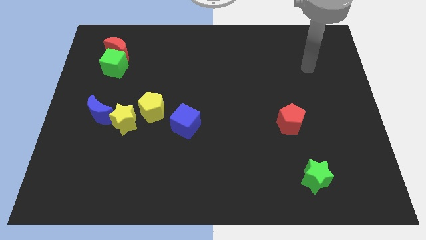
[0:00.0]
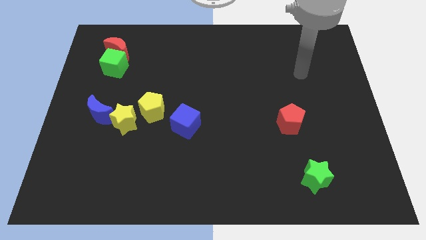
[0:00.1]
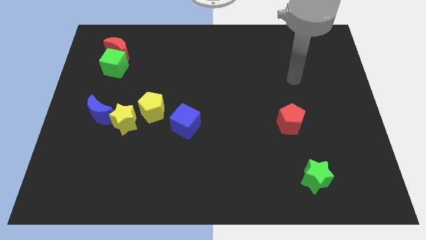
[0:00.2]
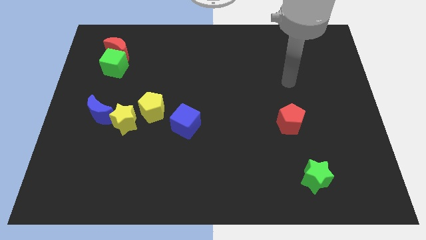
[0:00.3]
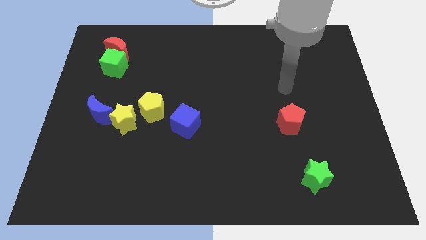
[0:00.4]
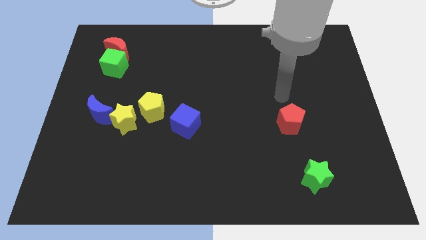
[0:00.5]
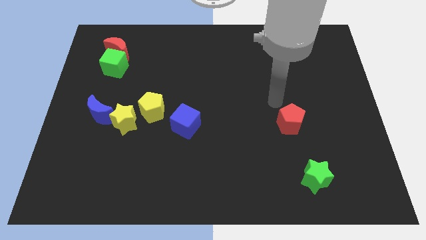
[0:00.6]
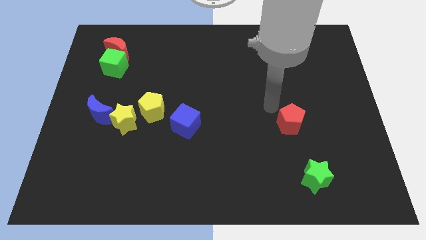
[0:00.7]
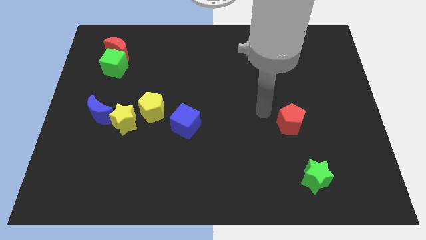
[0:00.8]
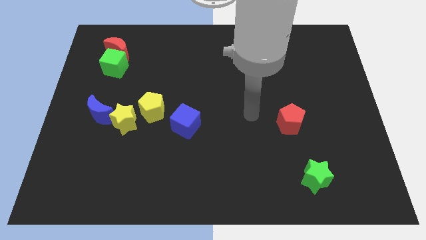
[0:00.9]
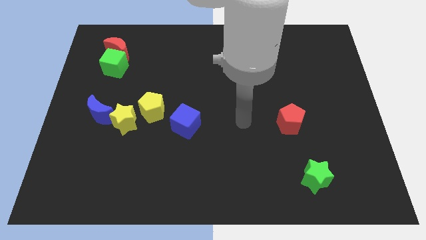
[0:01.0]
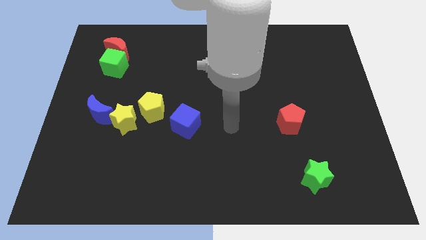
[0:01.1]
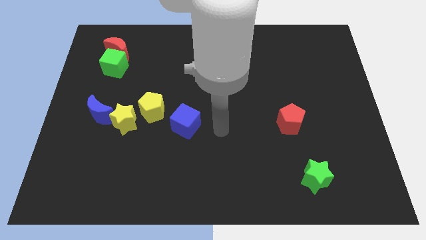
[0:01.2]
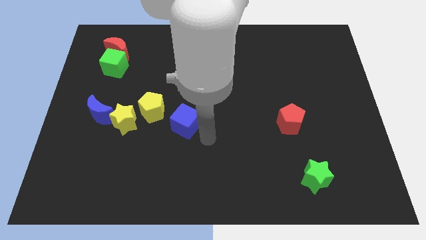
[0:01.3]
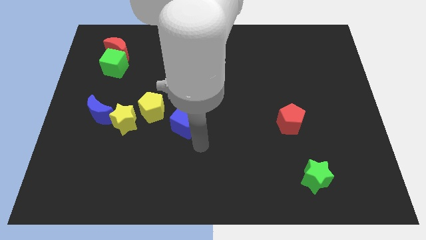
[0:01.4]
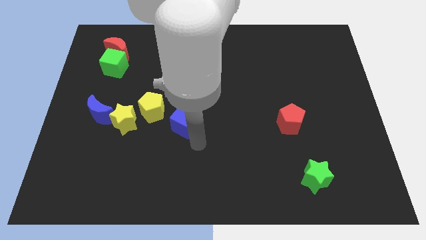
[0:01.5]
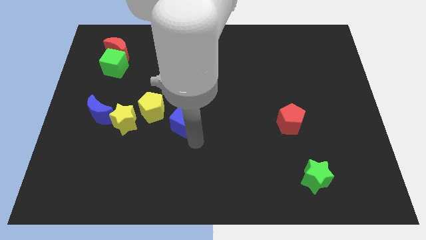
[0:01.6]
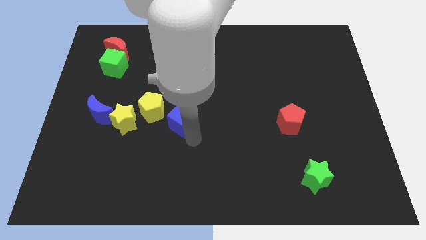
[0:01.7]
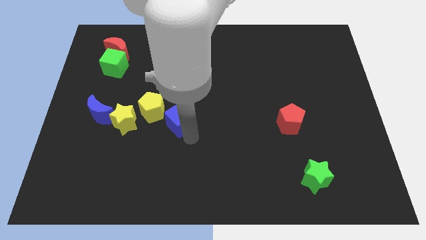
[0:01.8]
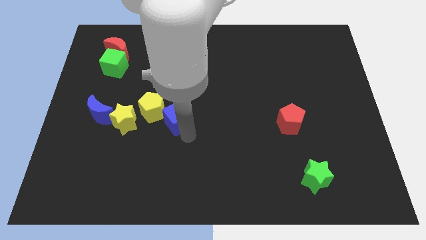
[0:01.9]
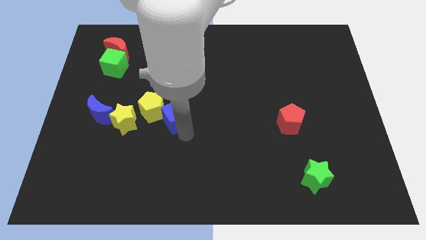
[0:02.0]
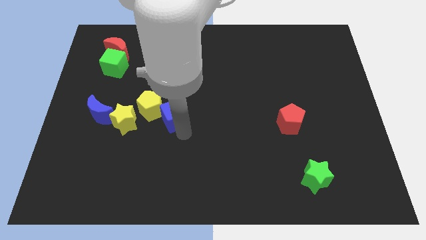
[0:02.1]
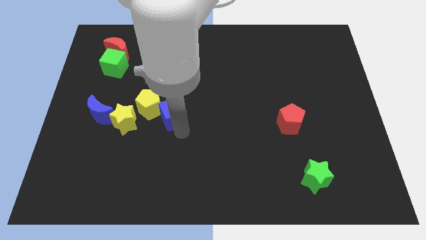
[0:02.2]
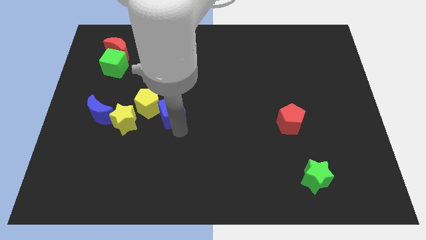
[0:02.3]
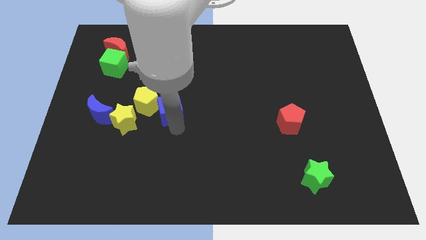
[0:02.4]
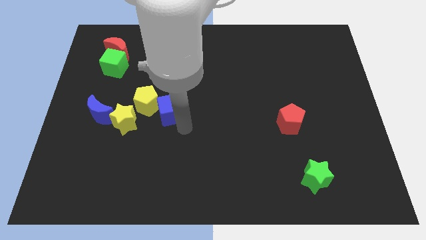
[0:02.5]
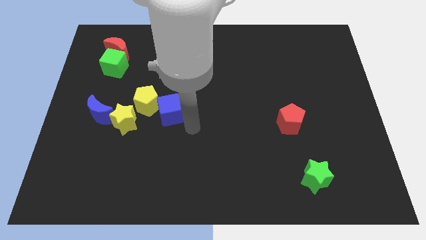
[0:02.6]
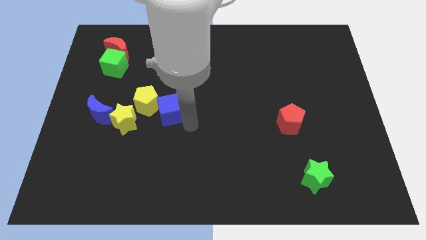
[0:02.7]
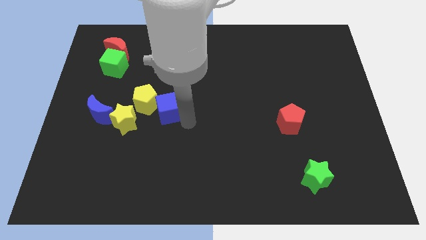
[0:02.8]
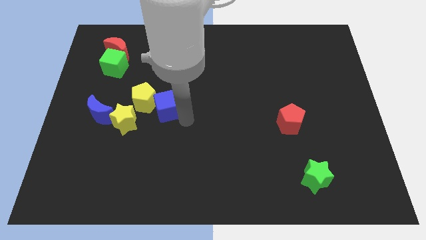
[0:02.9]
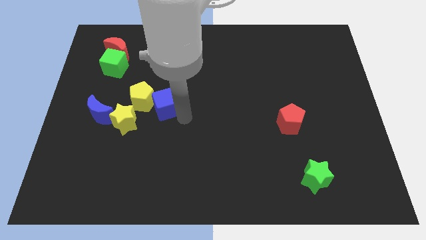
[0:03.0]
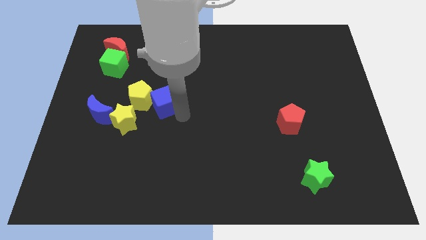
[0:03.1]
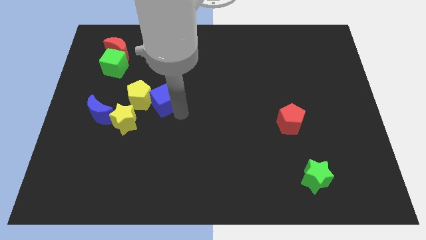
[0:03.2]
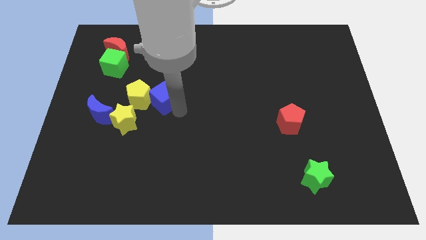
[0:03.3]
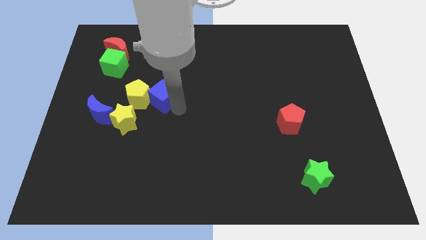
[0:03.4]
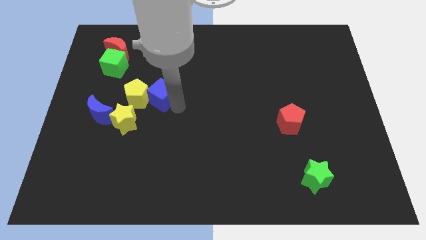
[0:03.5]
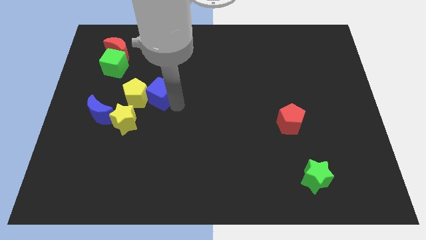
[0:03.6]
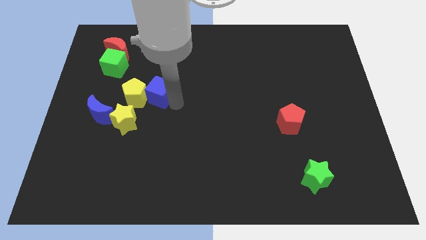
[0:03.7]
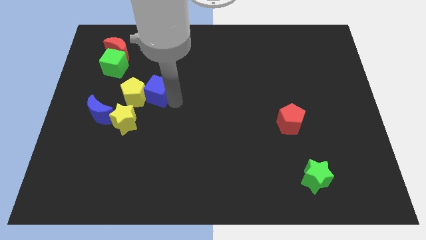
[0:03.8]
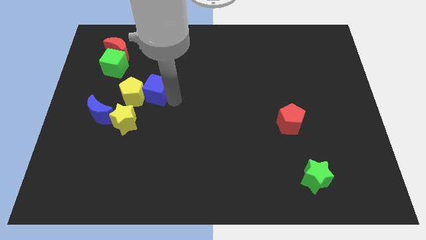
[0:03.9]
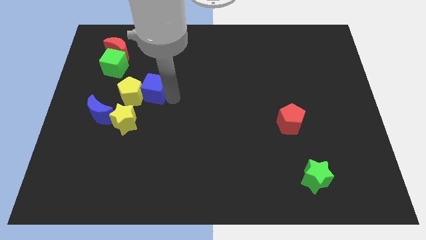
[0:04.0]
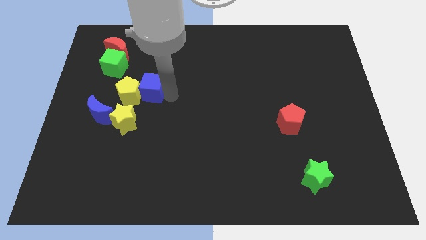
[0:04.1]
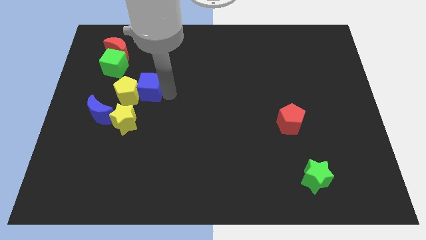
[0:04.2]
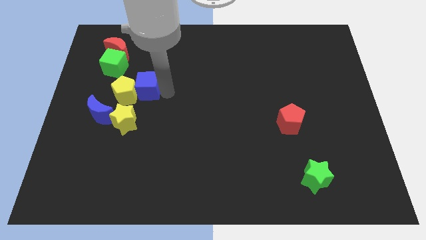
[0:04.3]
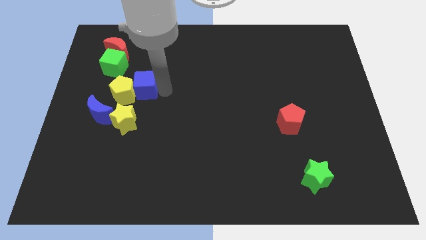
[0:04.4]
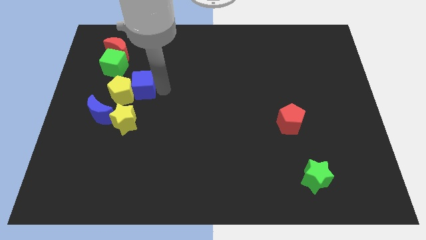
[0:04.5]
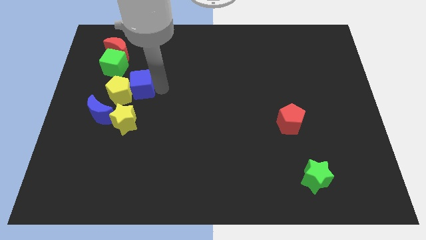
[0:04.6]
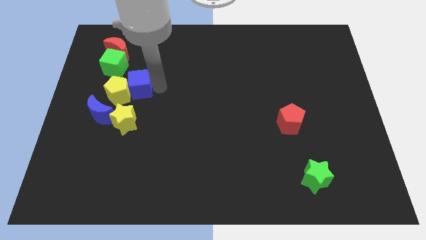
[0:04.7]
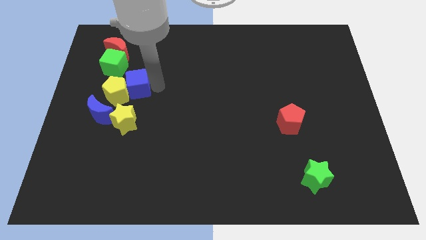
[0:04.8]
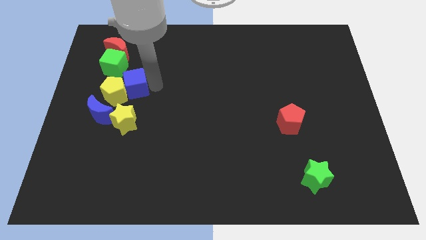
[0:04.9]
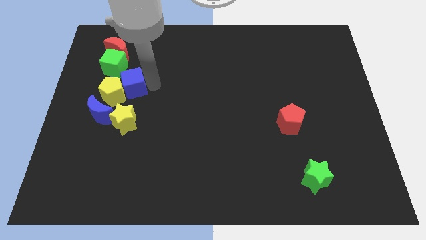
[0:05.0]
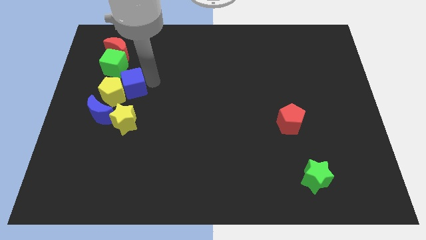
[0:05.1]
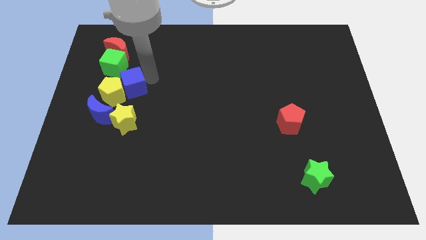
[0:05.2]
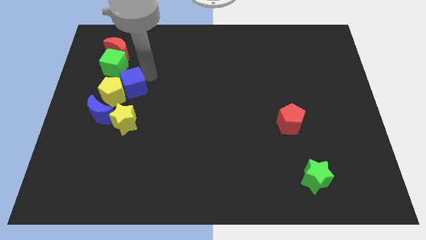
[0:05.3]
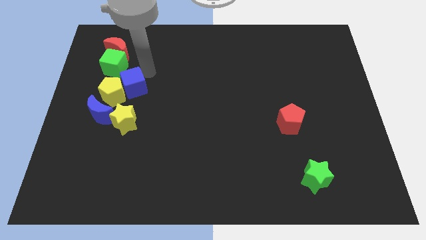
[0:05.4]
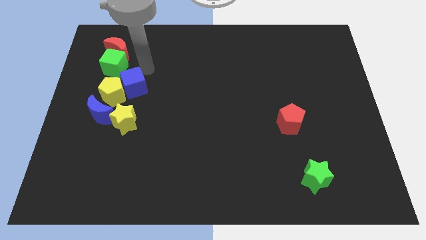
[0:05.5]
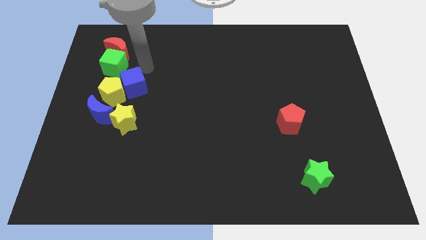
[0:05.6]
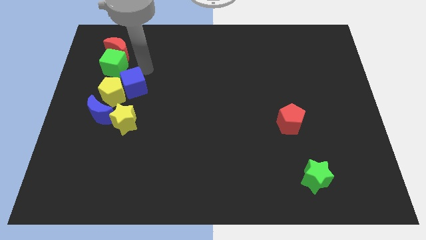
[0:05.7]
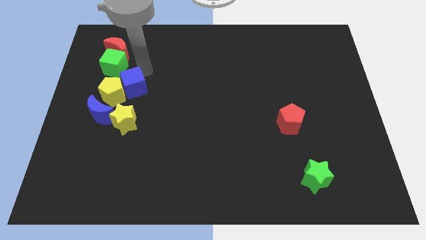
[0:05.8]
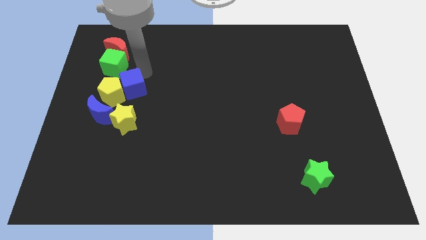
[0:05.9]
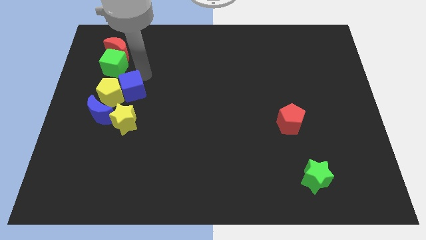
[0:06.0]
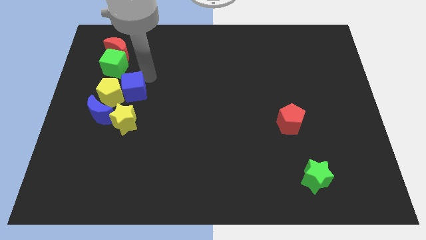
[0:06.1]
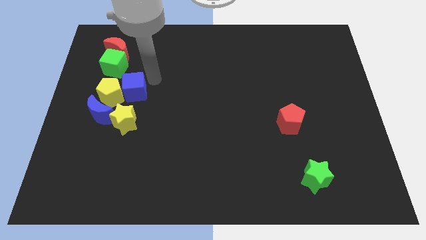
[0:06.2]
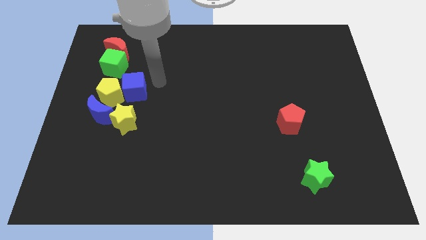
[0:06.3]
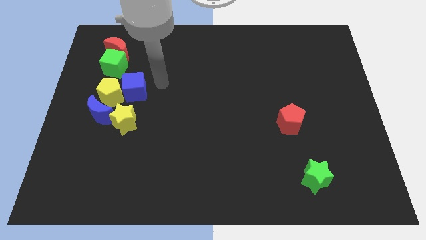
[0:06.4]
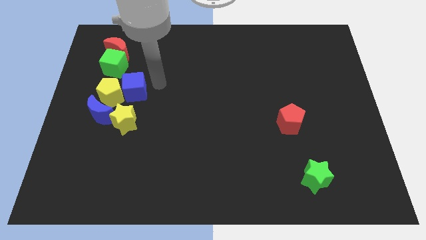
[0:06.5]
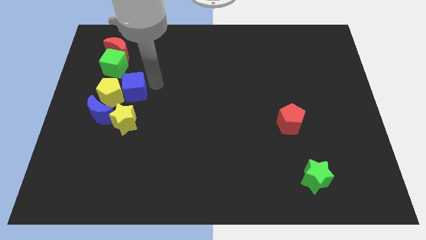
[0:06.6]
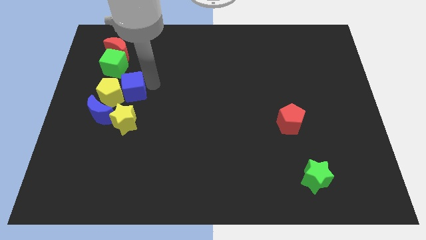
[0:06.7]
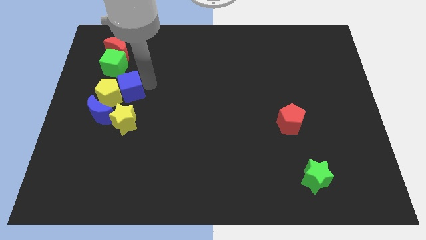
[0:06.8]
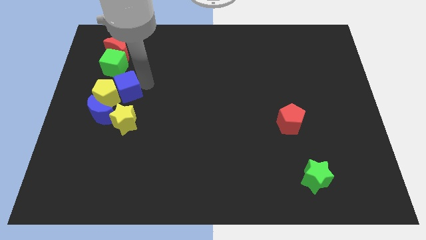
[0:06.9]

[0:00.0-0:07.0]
put the blue cube below the green cube
